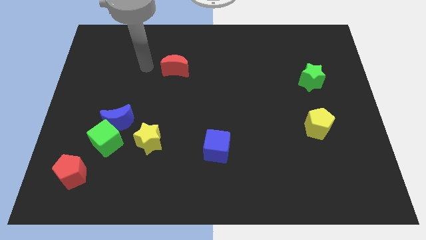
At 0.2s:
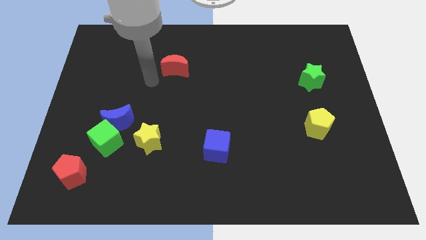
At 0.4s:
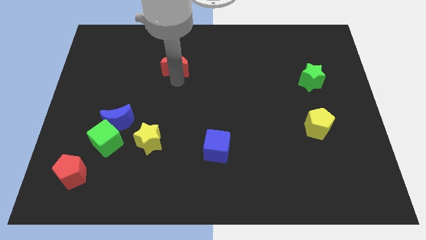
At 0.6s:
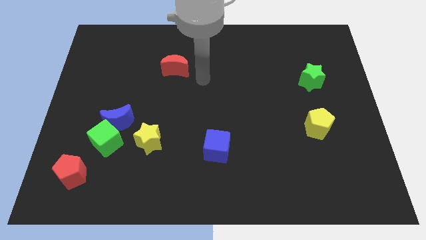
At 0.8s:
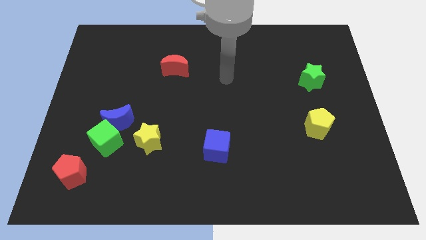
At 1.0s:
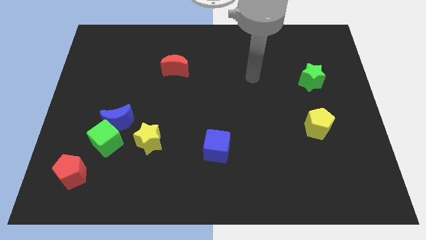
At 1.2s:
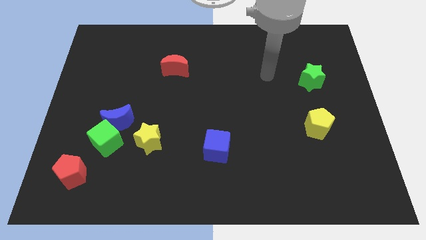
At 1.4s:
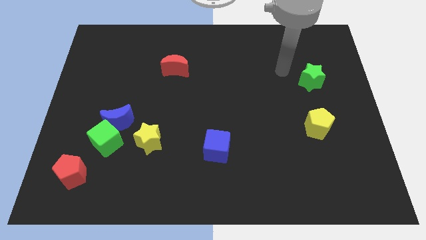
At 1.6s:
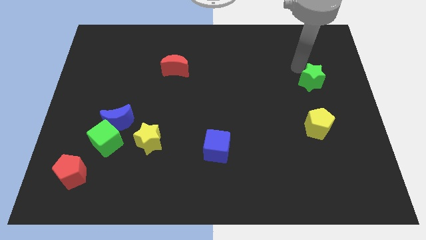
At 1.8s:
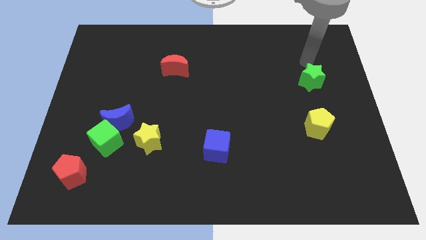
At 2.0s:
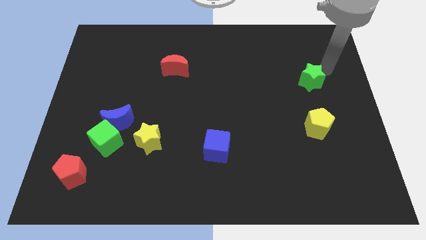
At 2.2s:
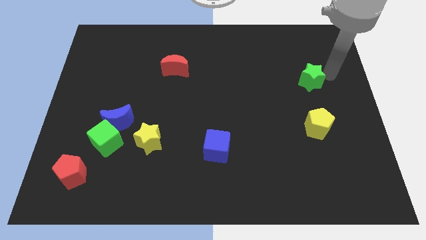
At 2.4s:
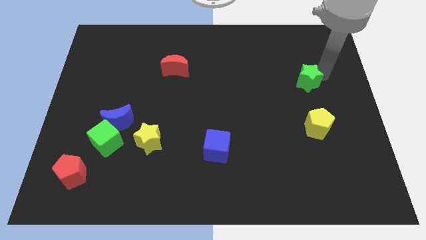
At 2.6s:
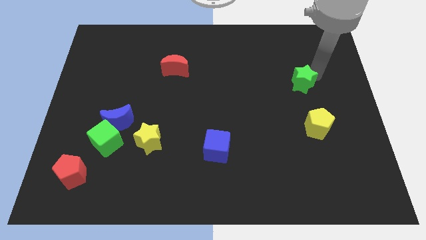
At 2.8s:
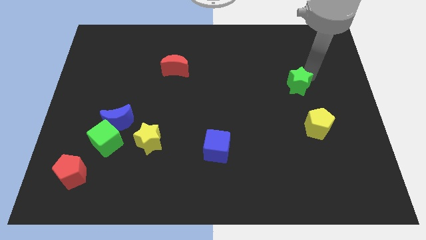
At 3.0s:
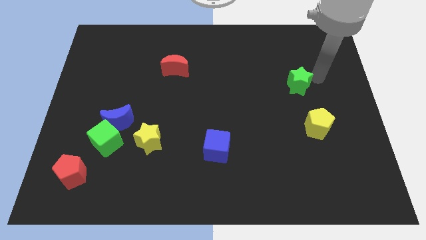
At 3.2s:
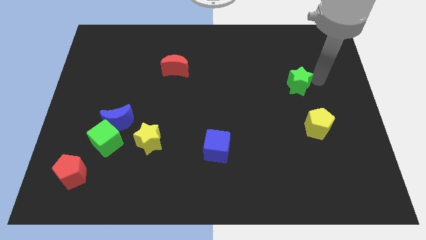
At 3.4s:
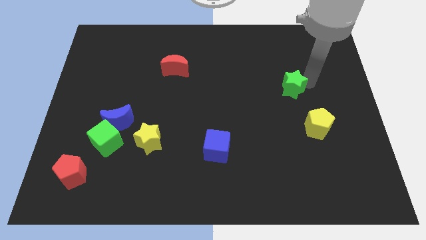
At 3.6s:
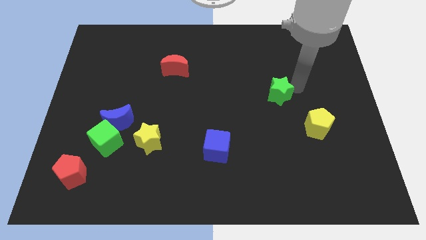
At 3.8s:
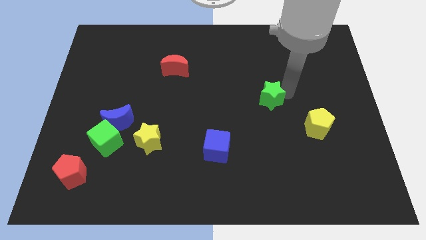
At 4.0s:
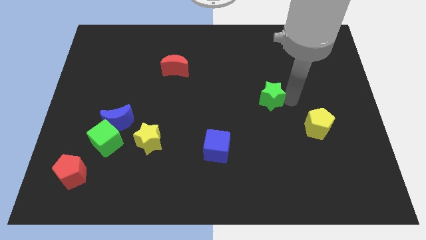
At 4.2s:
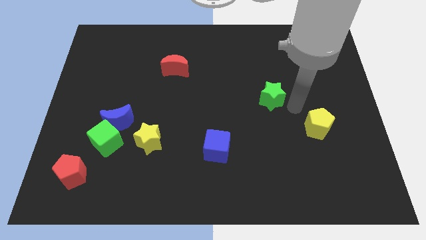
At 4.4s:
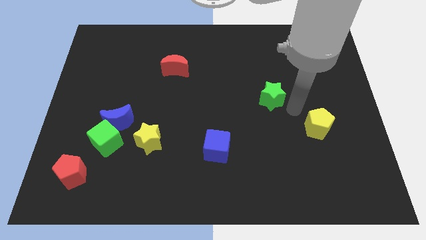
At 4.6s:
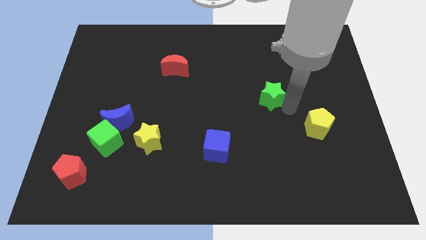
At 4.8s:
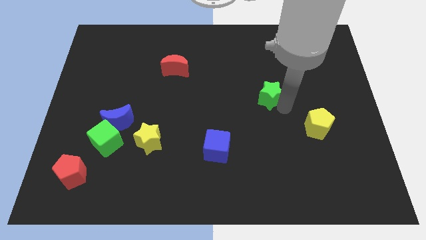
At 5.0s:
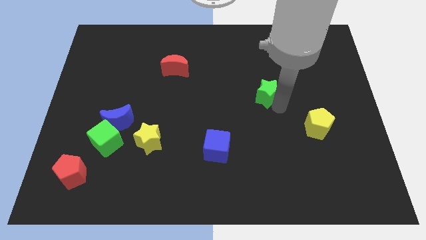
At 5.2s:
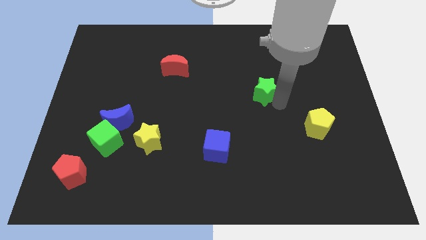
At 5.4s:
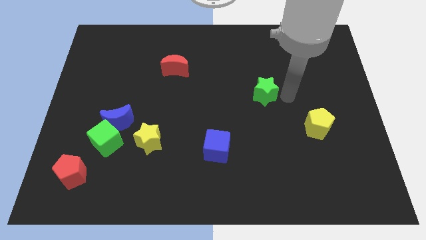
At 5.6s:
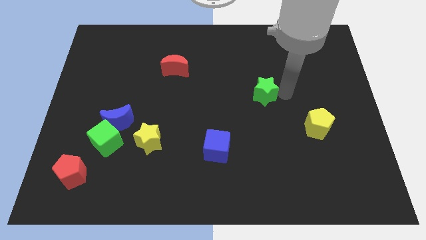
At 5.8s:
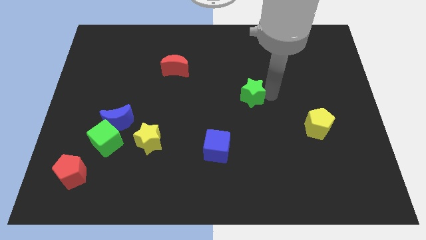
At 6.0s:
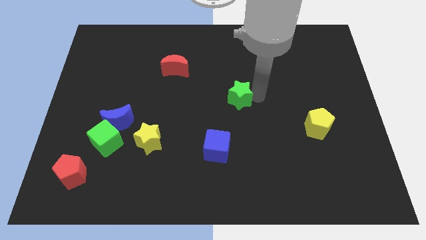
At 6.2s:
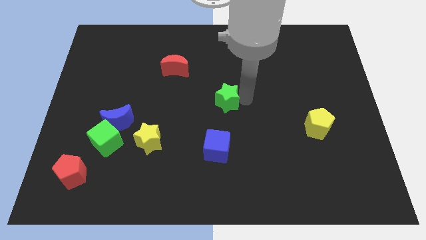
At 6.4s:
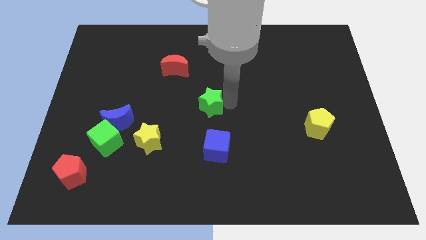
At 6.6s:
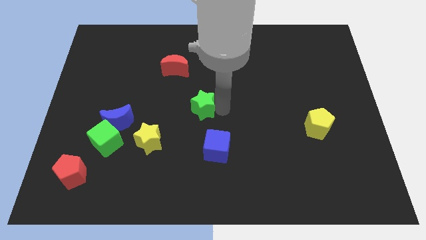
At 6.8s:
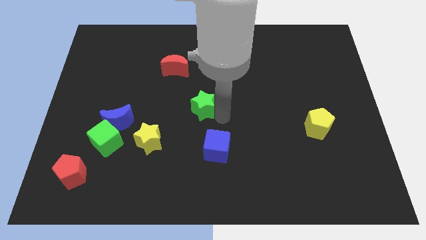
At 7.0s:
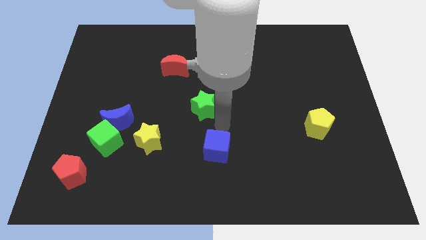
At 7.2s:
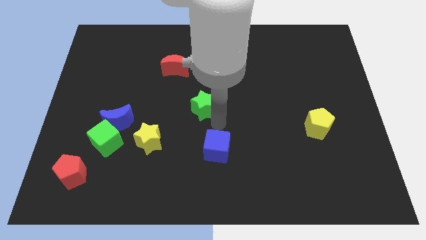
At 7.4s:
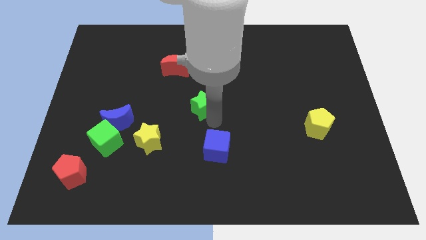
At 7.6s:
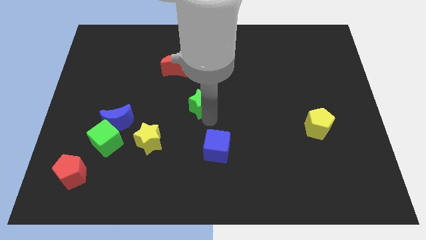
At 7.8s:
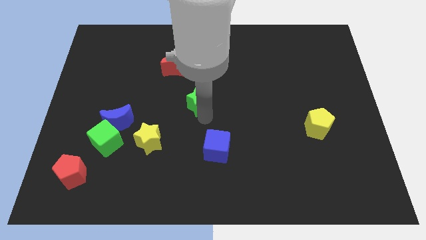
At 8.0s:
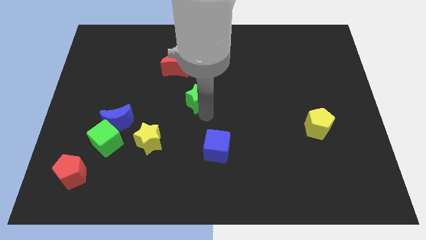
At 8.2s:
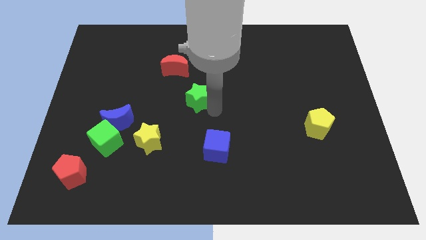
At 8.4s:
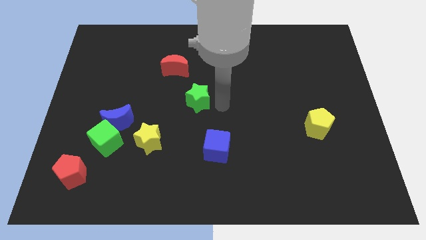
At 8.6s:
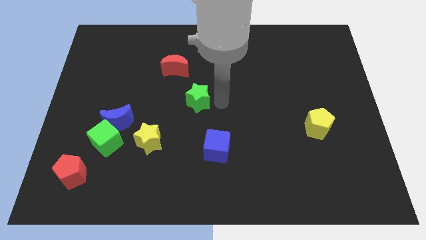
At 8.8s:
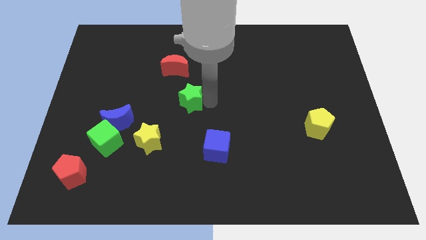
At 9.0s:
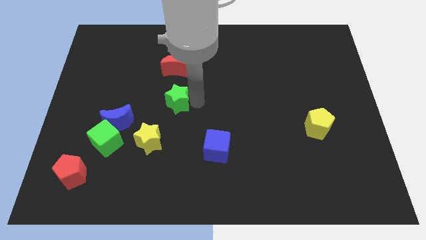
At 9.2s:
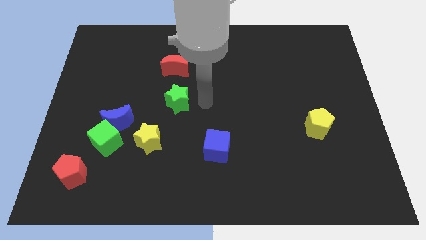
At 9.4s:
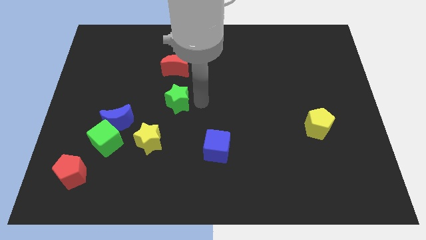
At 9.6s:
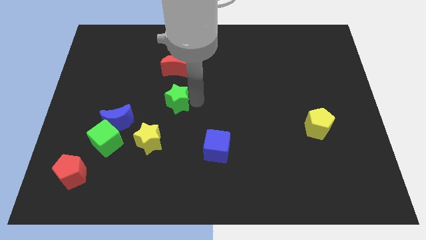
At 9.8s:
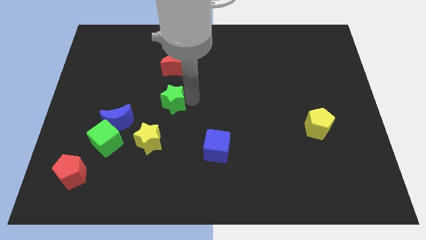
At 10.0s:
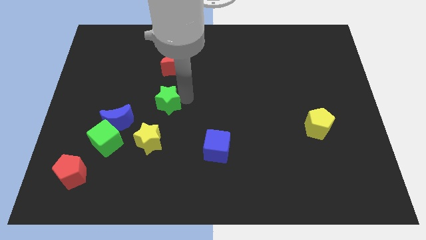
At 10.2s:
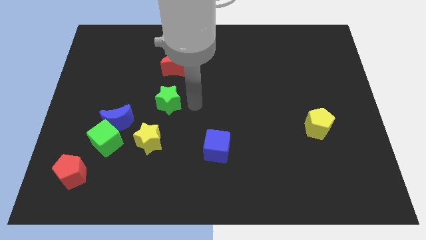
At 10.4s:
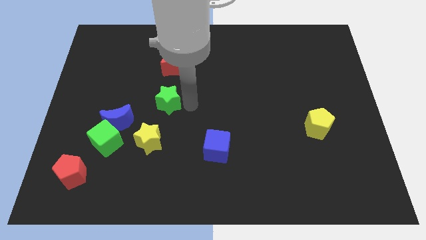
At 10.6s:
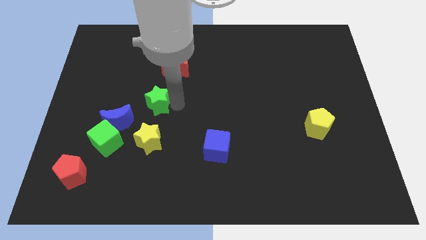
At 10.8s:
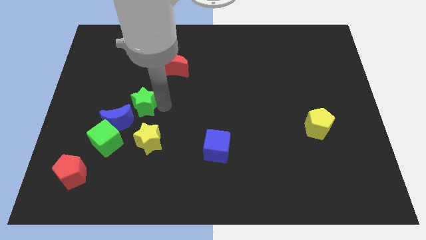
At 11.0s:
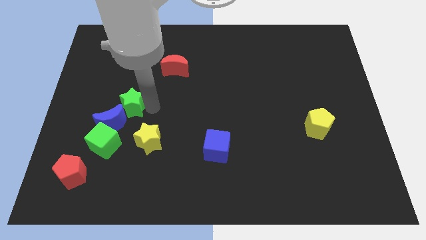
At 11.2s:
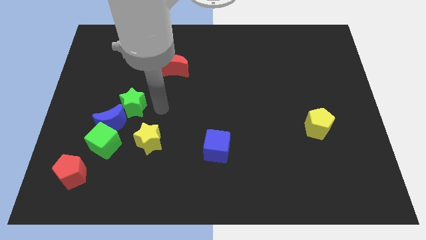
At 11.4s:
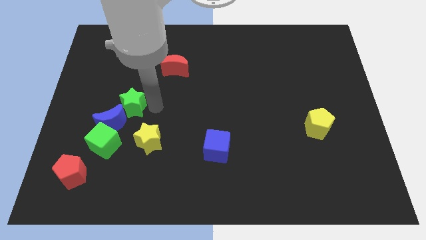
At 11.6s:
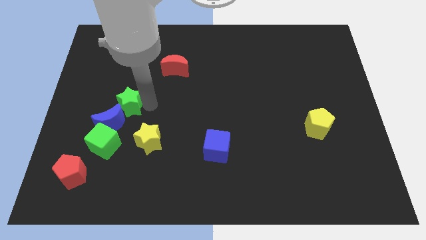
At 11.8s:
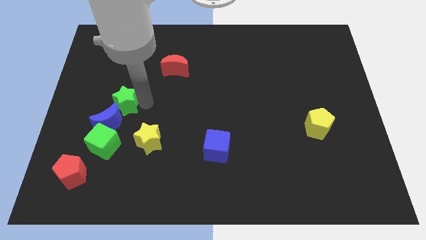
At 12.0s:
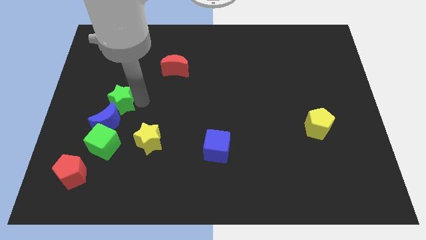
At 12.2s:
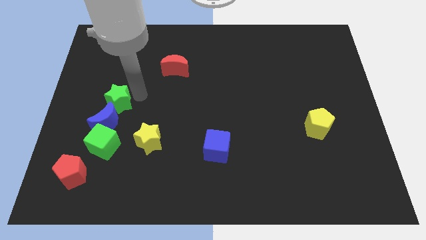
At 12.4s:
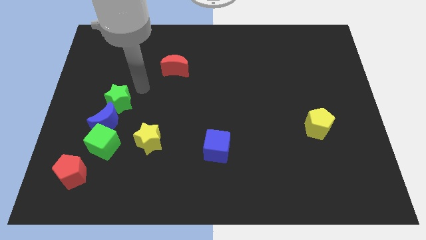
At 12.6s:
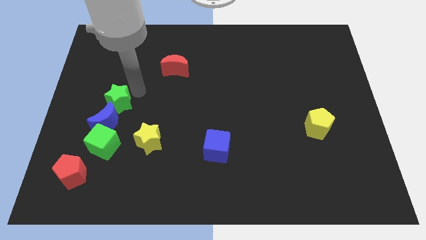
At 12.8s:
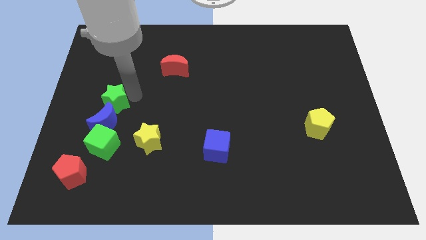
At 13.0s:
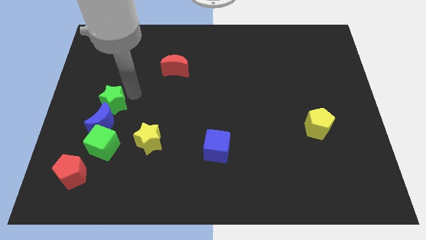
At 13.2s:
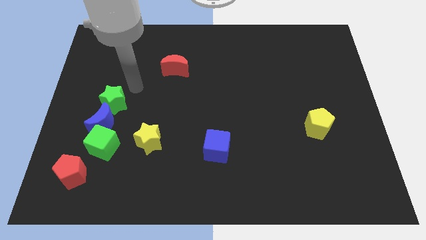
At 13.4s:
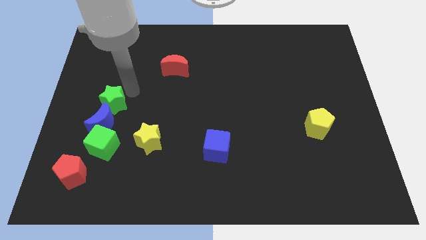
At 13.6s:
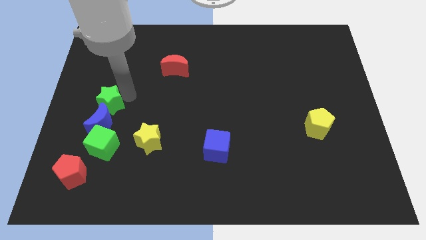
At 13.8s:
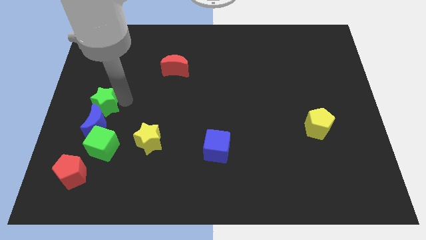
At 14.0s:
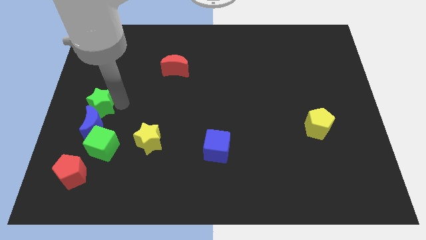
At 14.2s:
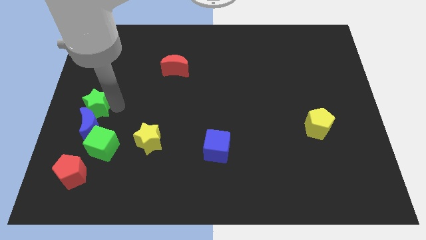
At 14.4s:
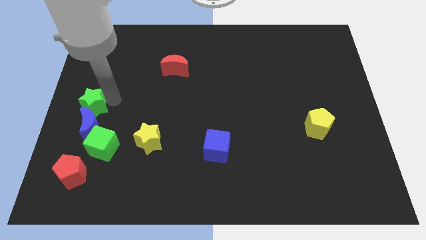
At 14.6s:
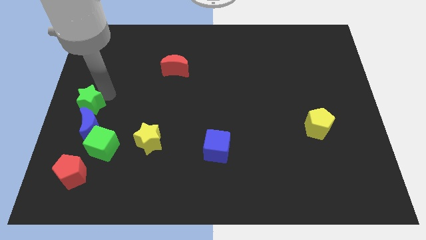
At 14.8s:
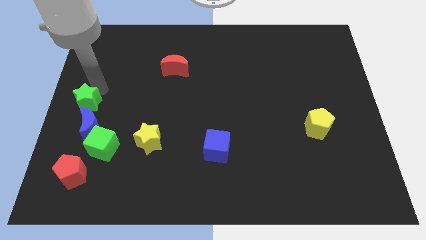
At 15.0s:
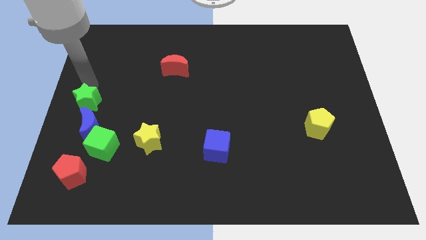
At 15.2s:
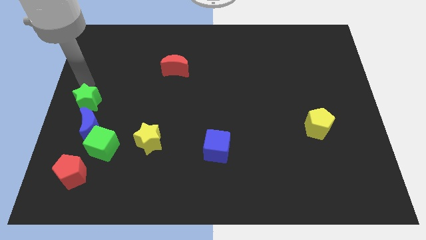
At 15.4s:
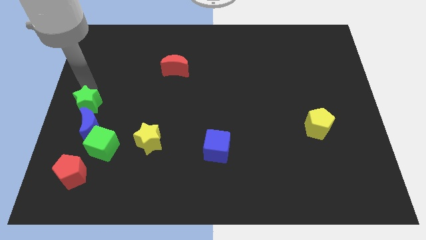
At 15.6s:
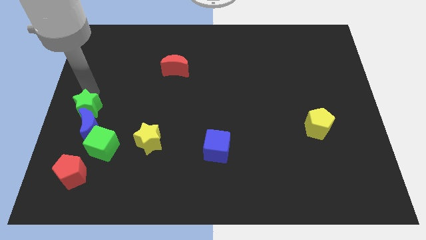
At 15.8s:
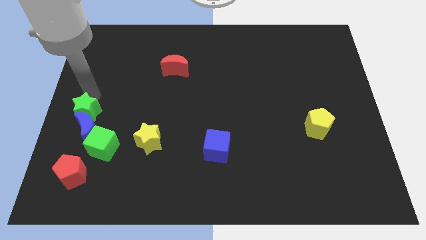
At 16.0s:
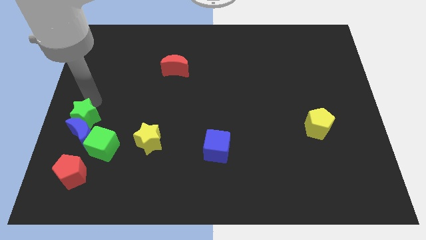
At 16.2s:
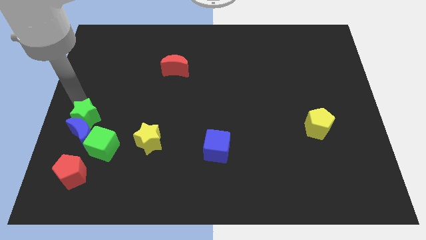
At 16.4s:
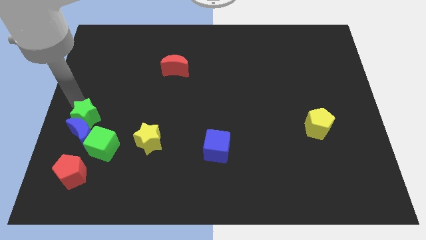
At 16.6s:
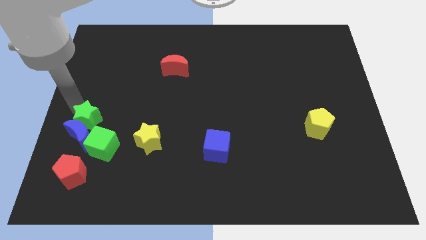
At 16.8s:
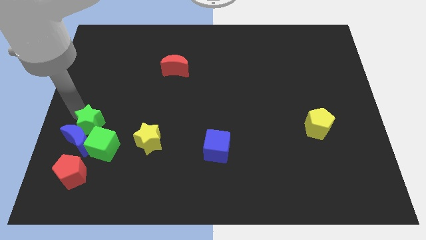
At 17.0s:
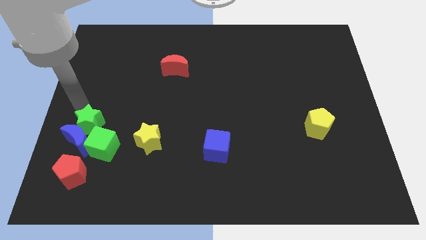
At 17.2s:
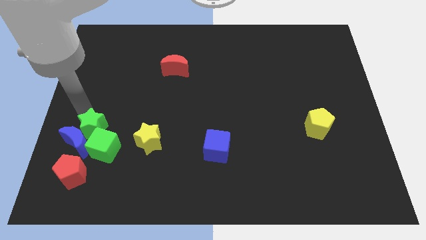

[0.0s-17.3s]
push the green star left of the yellow star
